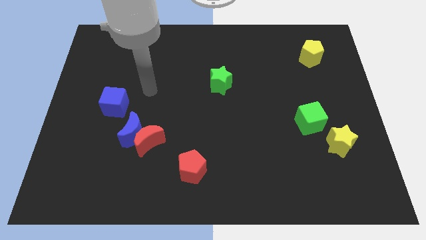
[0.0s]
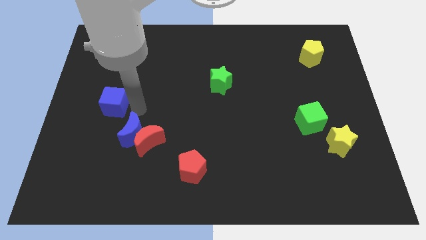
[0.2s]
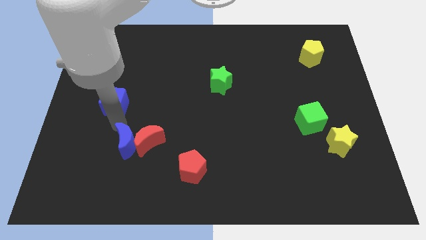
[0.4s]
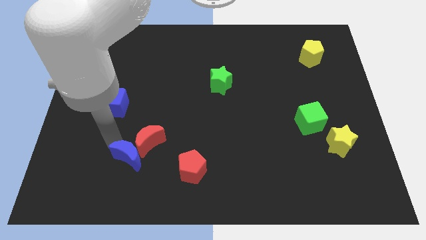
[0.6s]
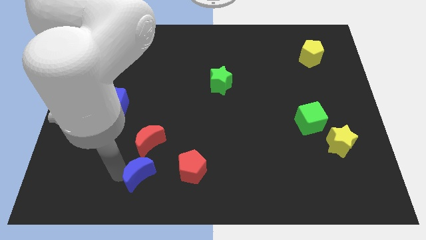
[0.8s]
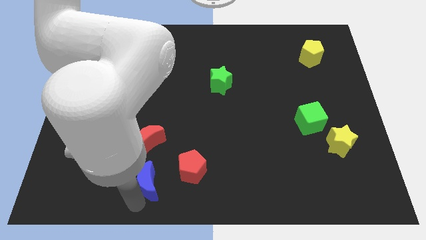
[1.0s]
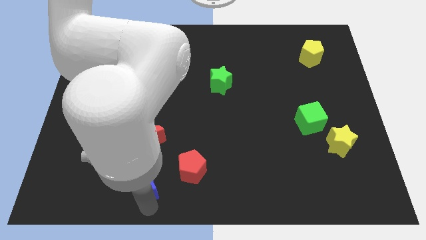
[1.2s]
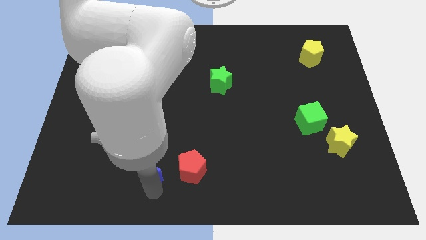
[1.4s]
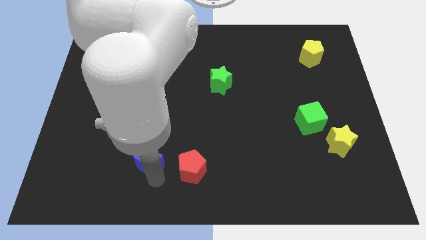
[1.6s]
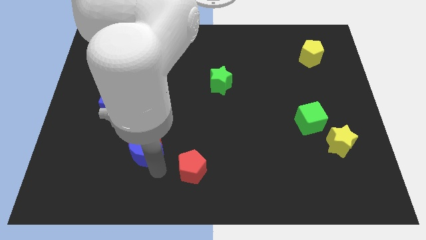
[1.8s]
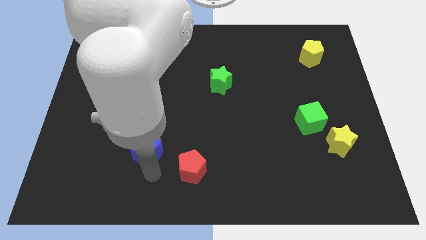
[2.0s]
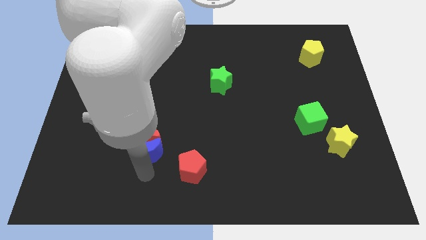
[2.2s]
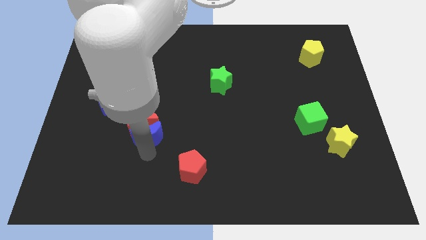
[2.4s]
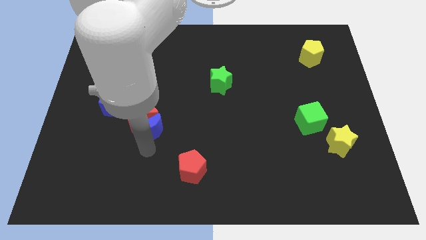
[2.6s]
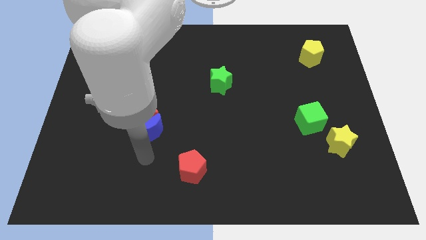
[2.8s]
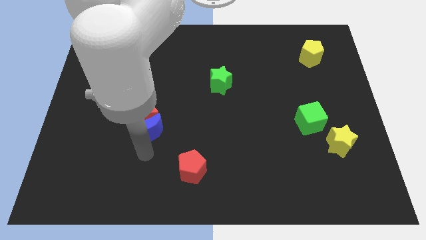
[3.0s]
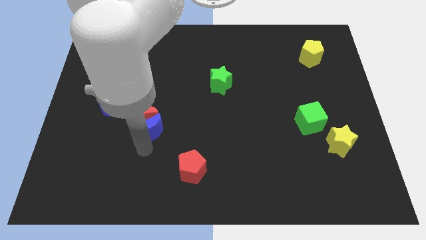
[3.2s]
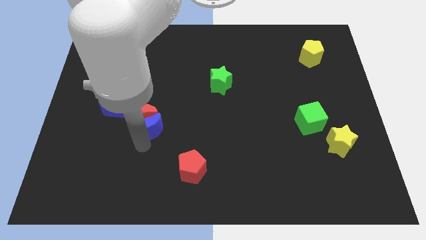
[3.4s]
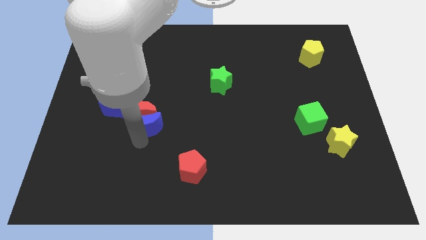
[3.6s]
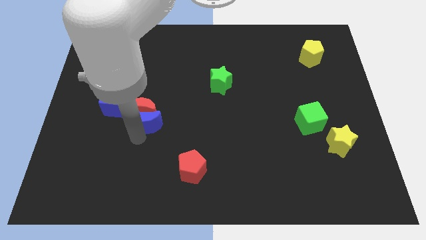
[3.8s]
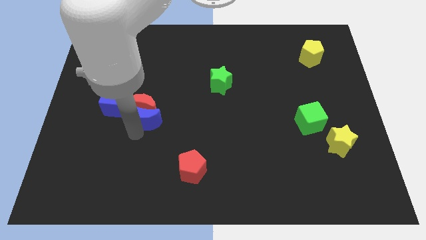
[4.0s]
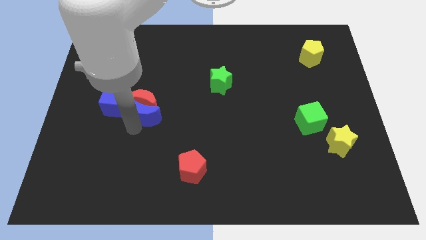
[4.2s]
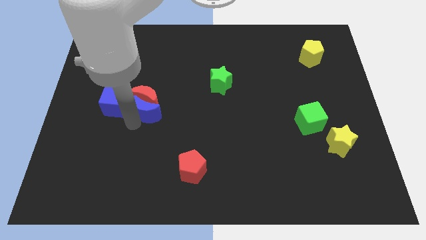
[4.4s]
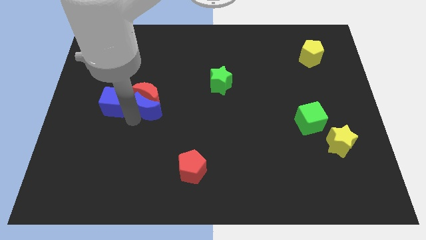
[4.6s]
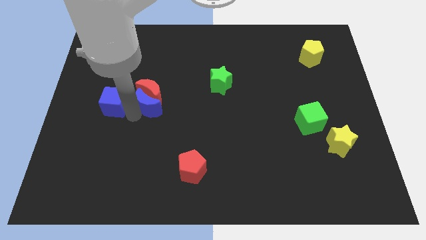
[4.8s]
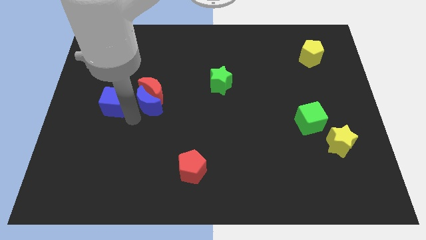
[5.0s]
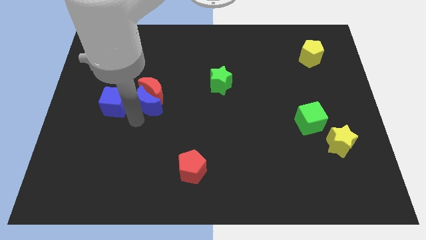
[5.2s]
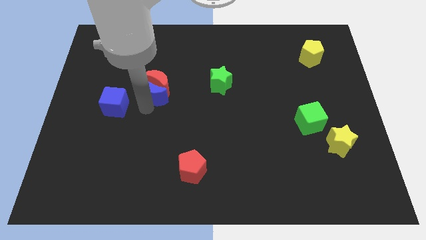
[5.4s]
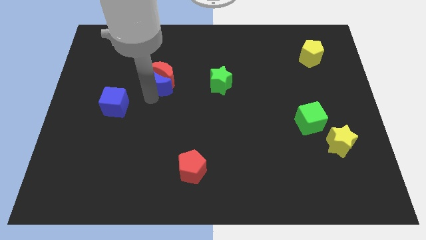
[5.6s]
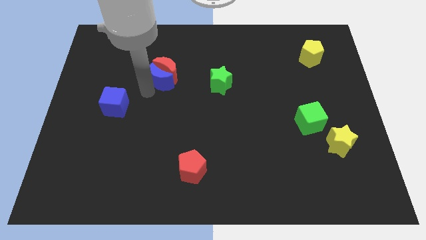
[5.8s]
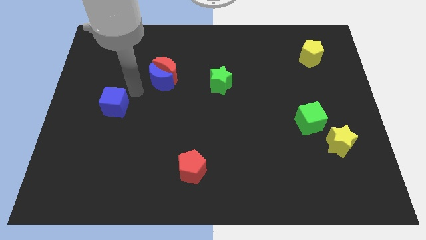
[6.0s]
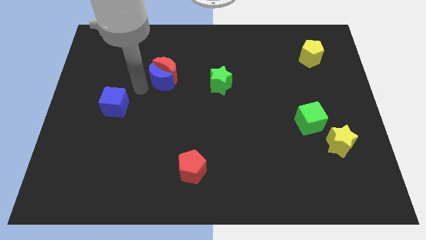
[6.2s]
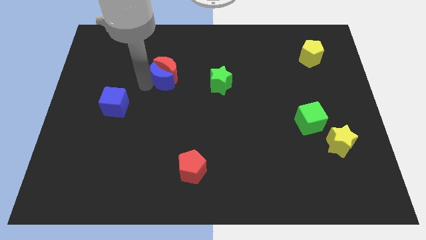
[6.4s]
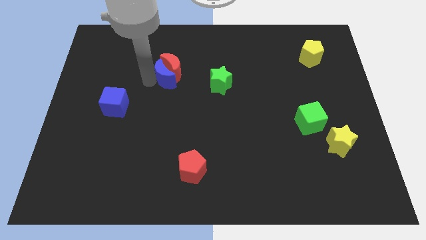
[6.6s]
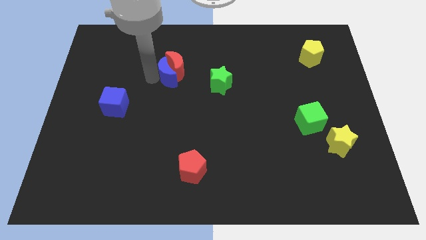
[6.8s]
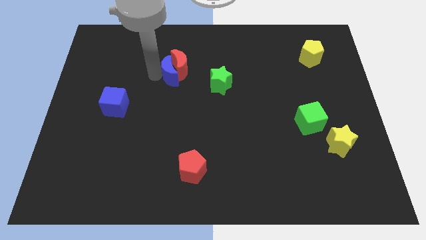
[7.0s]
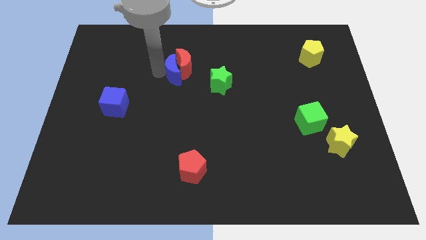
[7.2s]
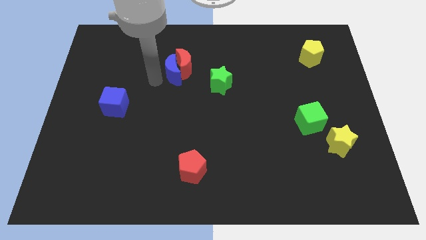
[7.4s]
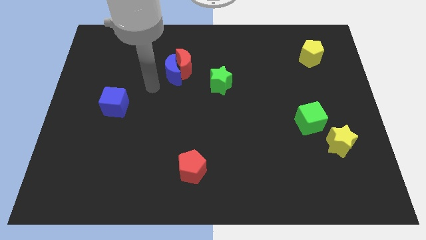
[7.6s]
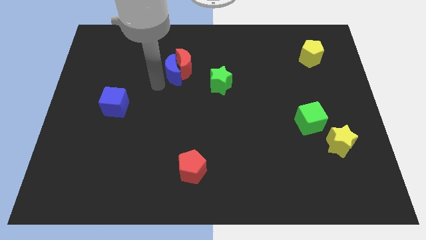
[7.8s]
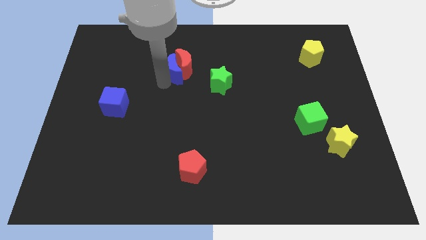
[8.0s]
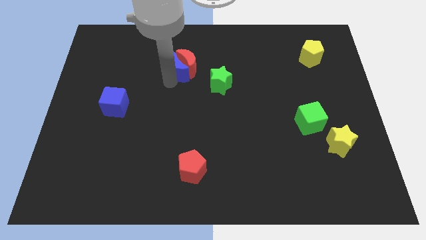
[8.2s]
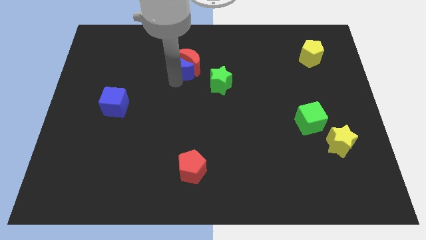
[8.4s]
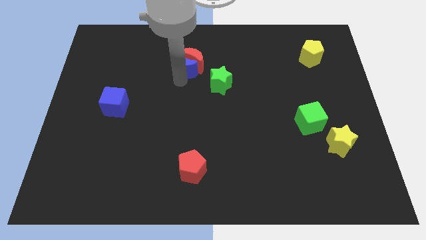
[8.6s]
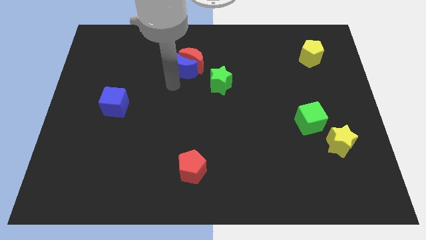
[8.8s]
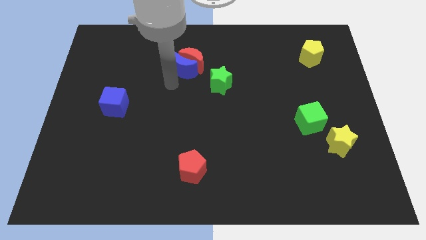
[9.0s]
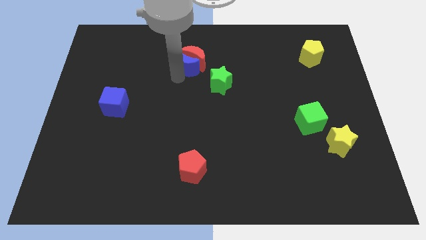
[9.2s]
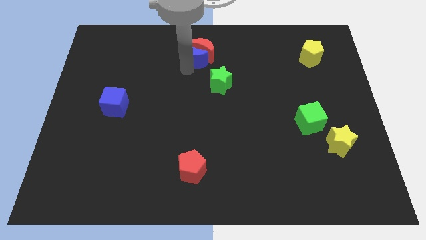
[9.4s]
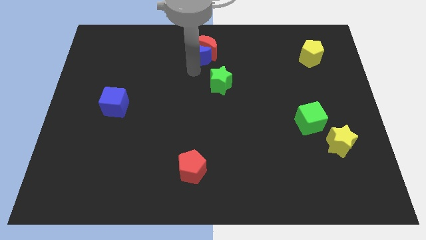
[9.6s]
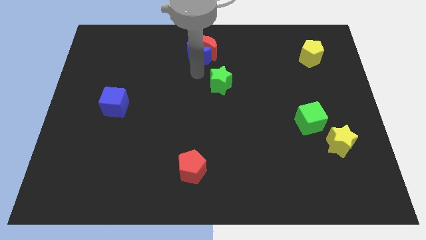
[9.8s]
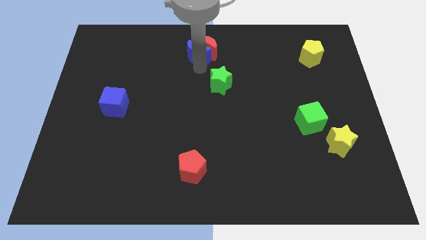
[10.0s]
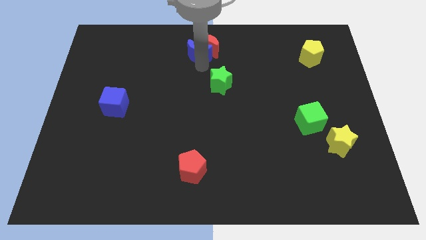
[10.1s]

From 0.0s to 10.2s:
put the blue moon to the top

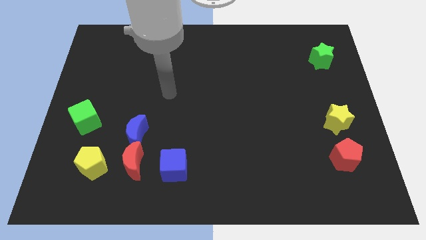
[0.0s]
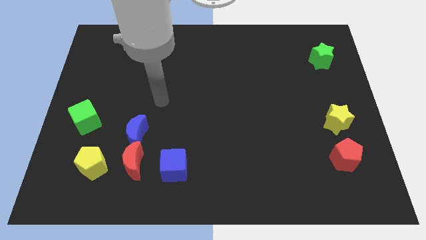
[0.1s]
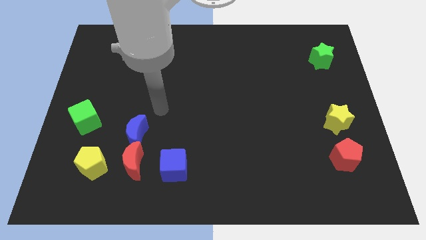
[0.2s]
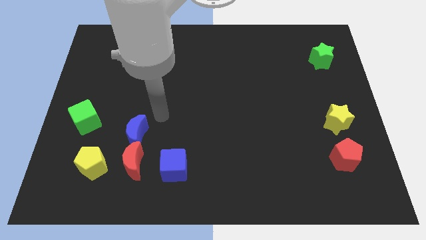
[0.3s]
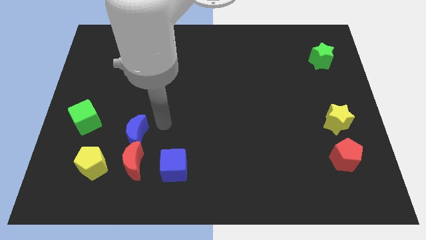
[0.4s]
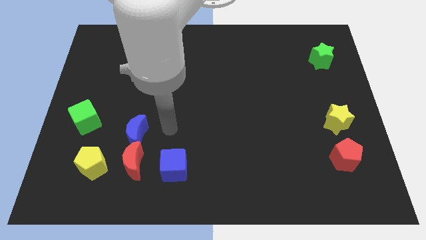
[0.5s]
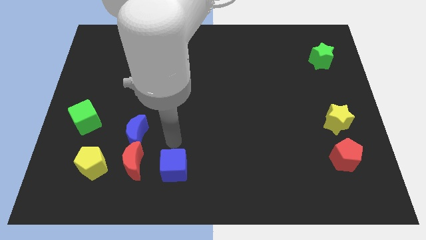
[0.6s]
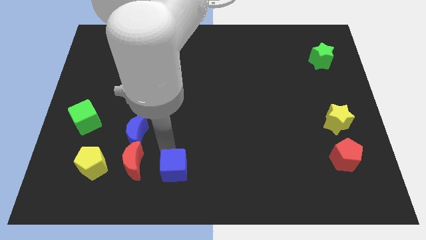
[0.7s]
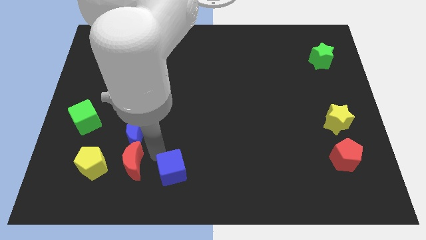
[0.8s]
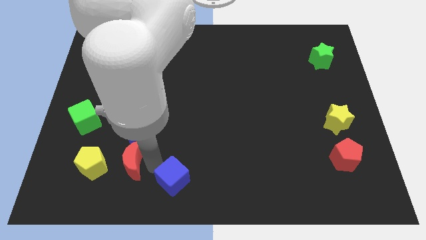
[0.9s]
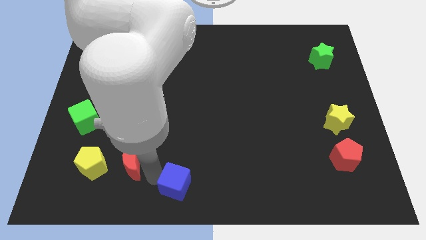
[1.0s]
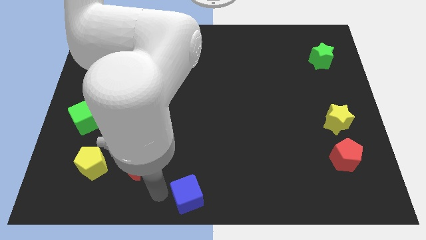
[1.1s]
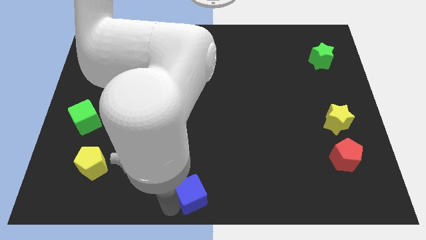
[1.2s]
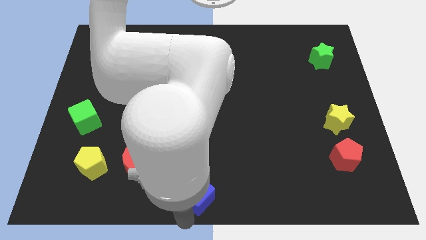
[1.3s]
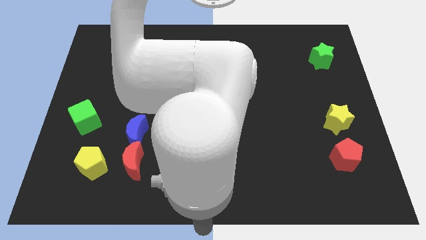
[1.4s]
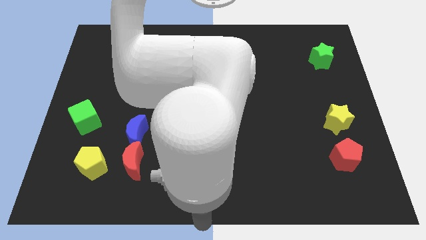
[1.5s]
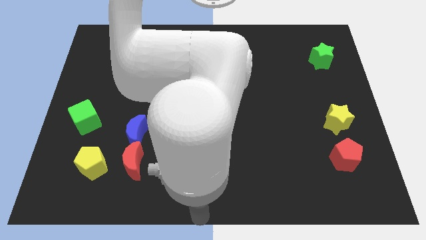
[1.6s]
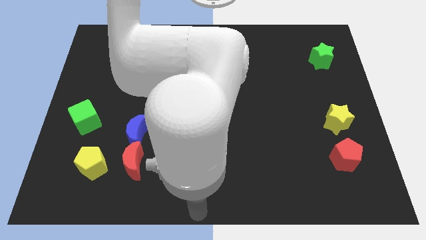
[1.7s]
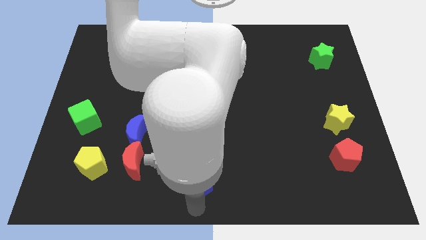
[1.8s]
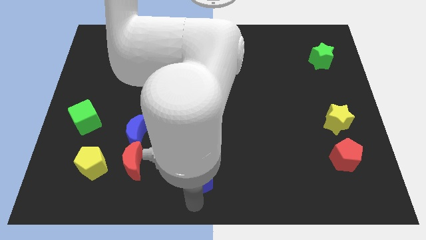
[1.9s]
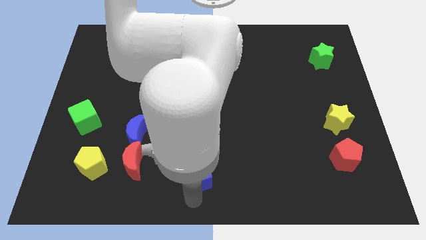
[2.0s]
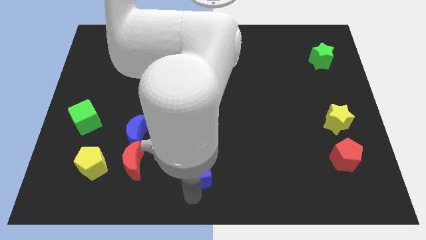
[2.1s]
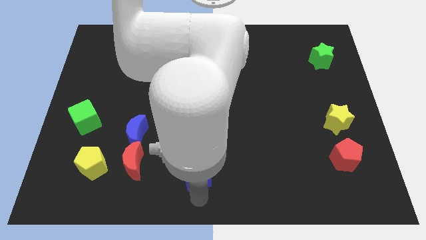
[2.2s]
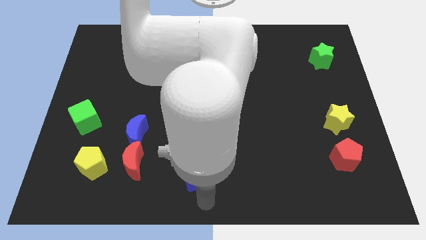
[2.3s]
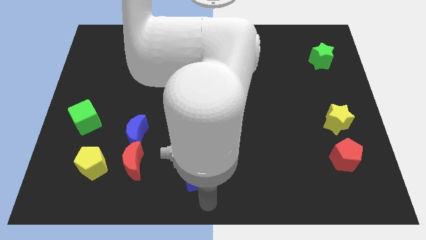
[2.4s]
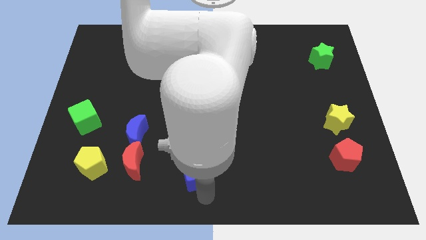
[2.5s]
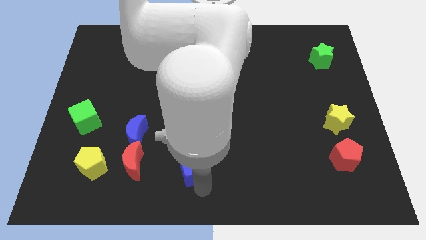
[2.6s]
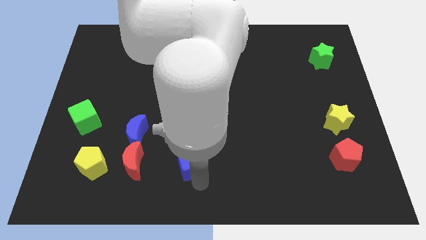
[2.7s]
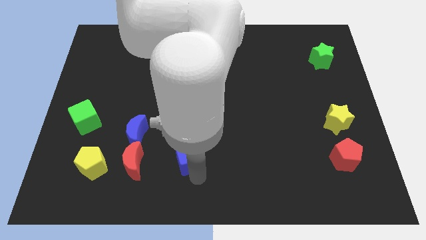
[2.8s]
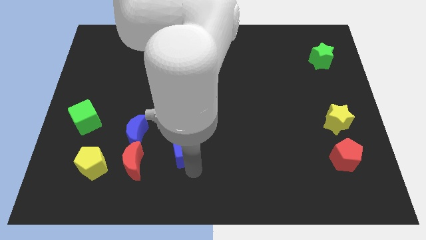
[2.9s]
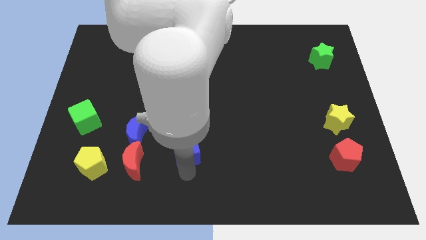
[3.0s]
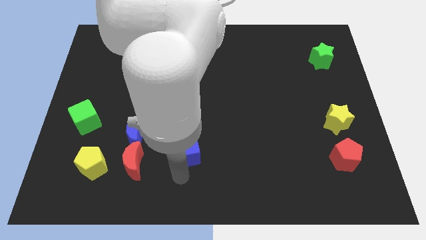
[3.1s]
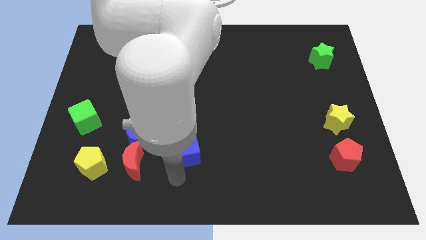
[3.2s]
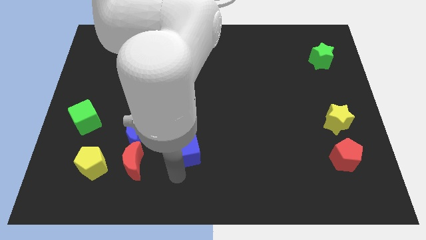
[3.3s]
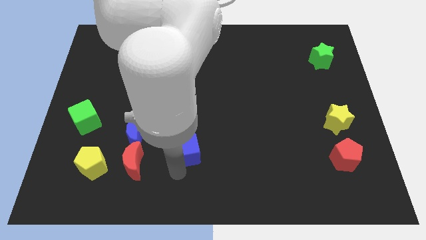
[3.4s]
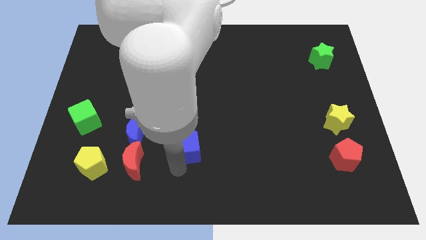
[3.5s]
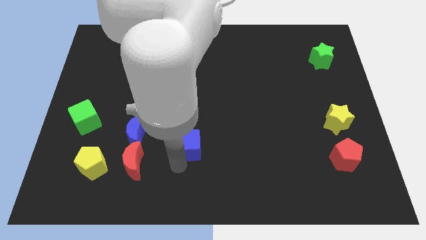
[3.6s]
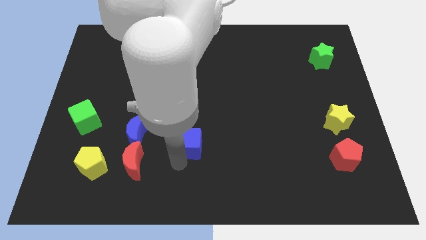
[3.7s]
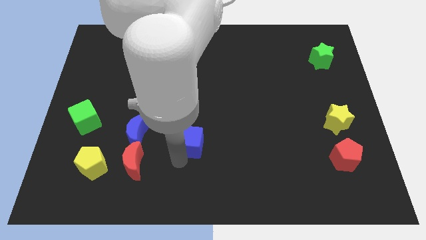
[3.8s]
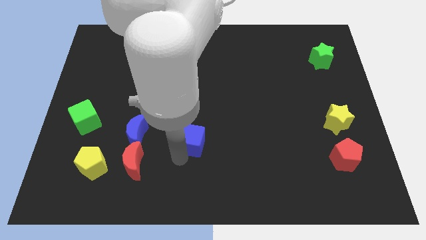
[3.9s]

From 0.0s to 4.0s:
put the blue cube to the middle
